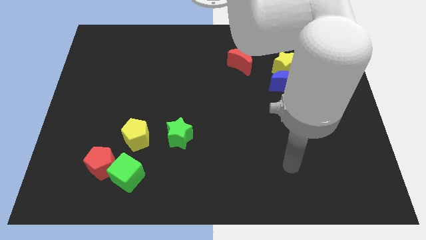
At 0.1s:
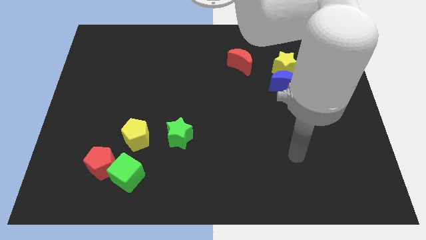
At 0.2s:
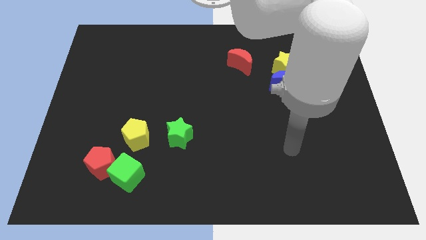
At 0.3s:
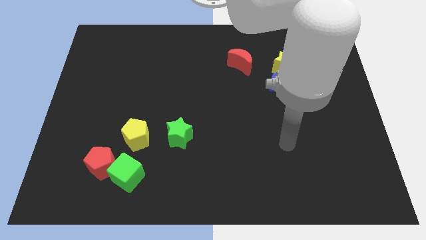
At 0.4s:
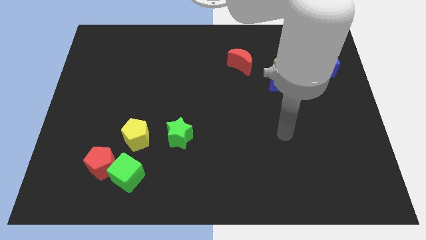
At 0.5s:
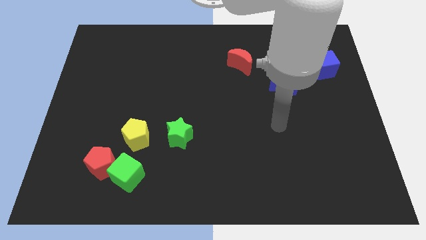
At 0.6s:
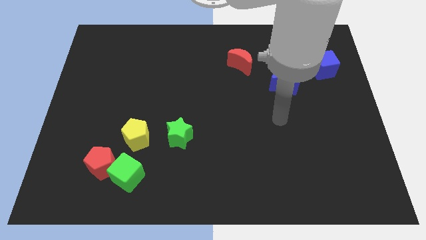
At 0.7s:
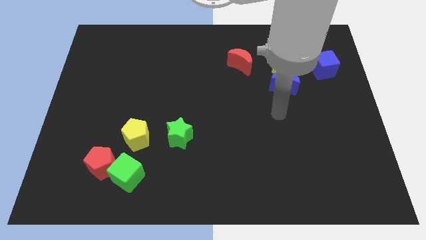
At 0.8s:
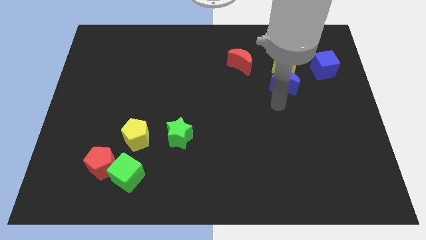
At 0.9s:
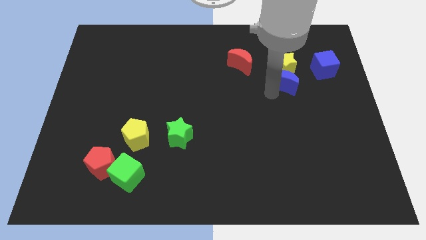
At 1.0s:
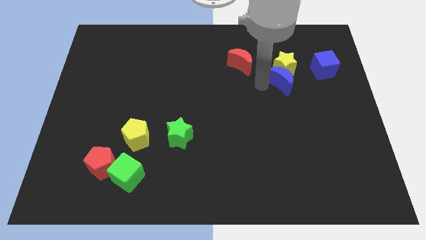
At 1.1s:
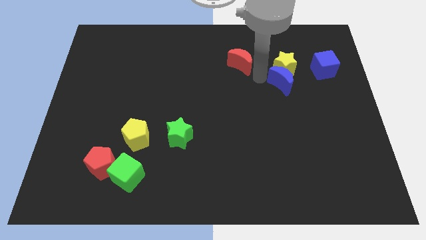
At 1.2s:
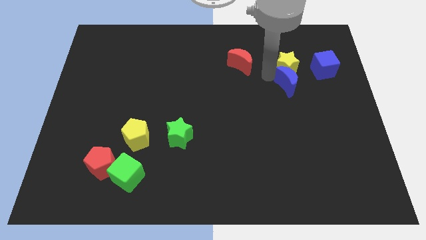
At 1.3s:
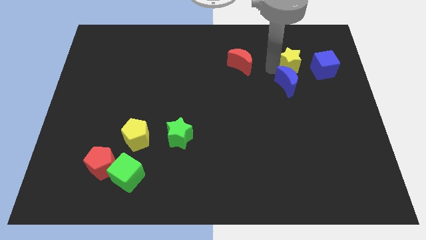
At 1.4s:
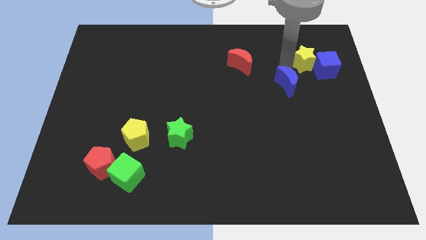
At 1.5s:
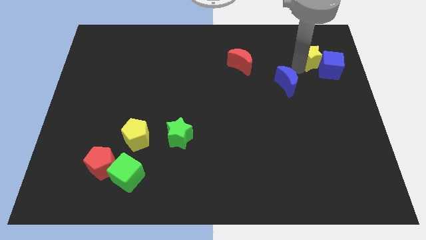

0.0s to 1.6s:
pull the blue moon apart from the yellow star

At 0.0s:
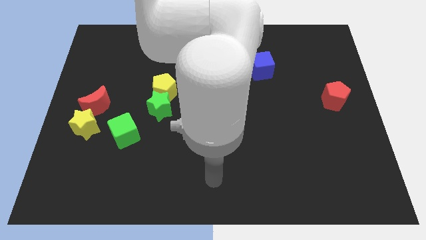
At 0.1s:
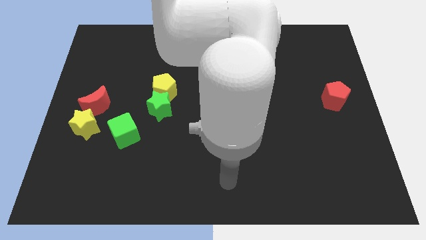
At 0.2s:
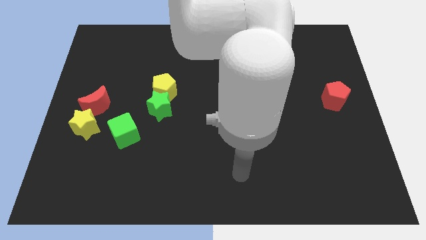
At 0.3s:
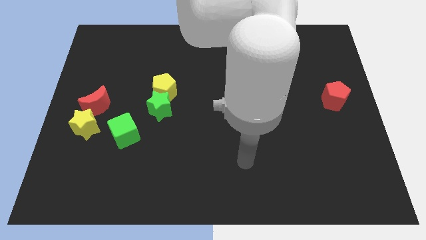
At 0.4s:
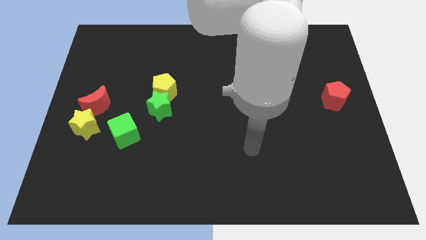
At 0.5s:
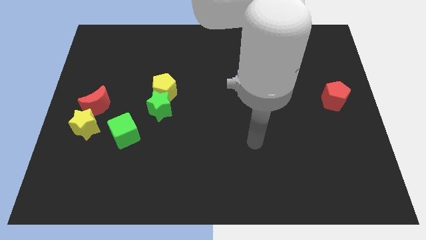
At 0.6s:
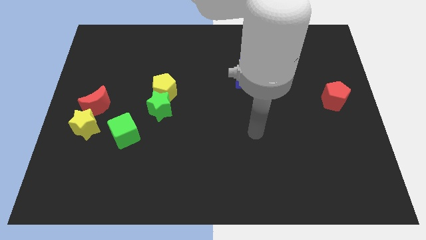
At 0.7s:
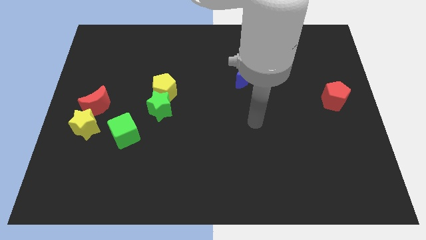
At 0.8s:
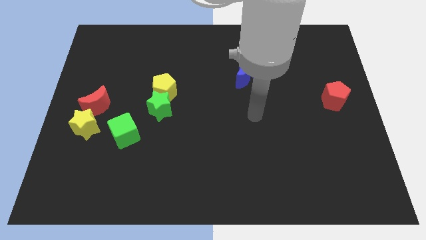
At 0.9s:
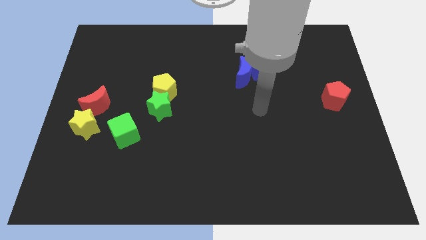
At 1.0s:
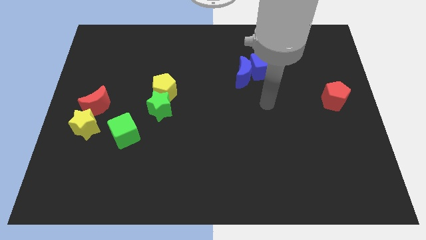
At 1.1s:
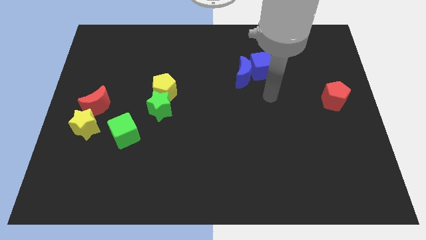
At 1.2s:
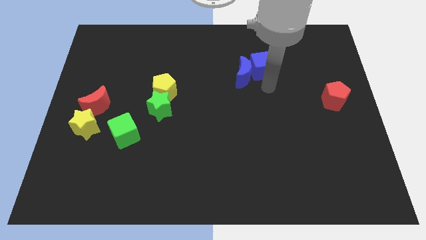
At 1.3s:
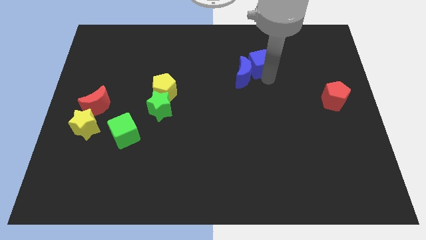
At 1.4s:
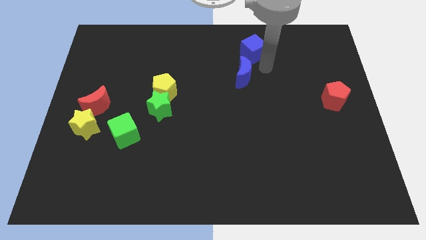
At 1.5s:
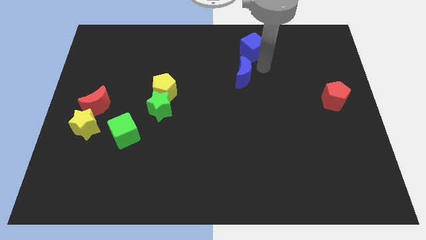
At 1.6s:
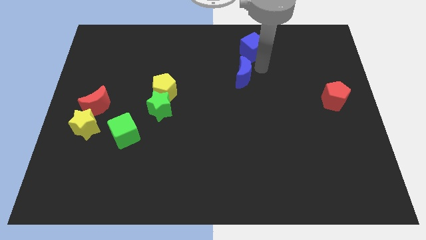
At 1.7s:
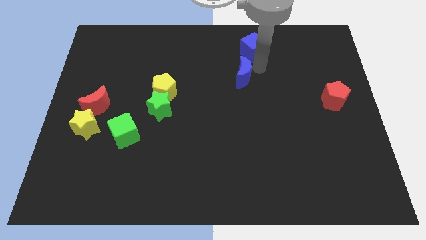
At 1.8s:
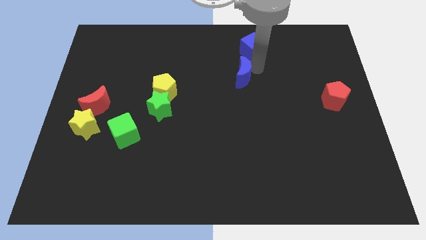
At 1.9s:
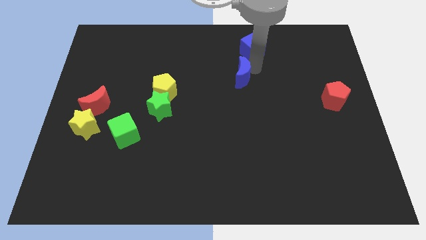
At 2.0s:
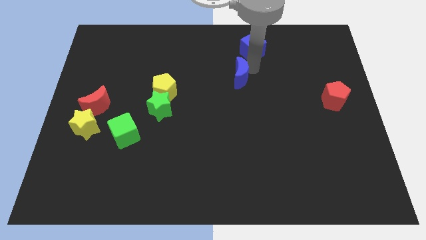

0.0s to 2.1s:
pull the blue moon apart from the blue cube

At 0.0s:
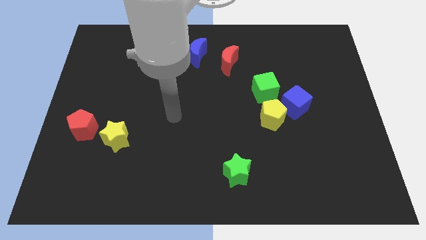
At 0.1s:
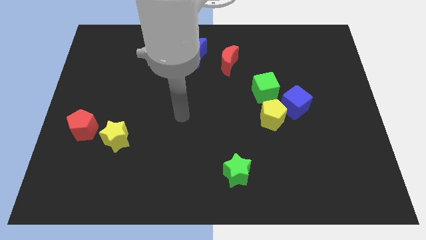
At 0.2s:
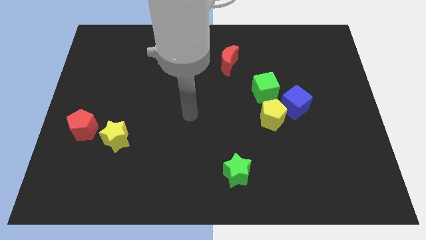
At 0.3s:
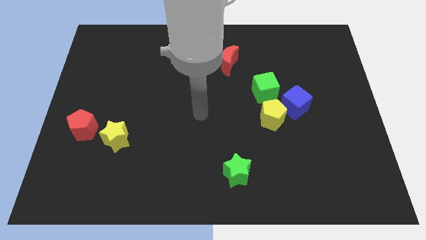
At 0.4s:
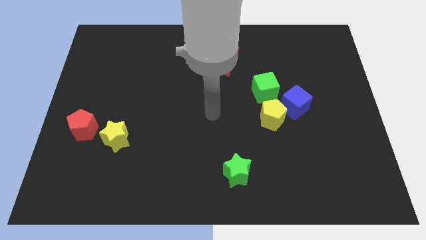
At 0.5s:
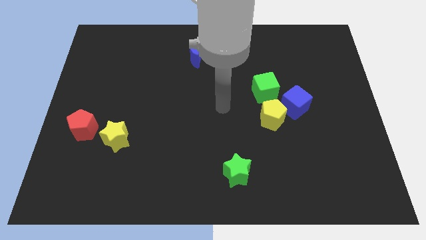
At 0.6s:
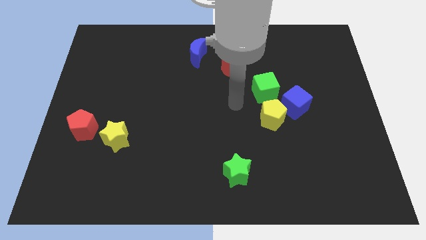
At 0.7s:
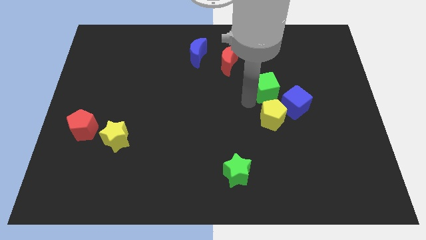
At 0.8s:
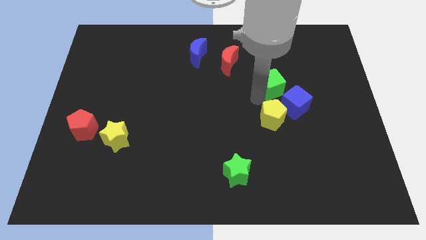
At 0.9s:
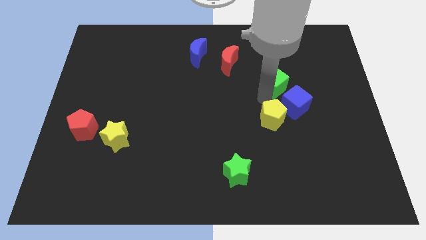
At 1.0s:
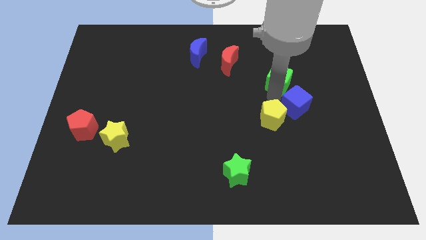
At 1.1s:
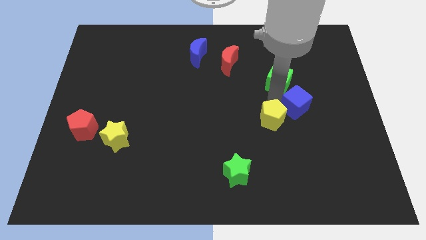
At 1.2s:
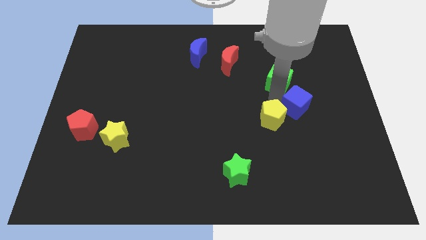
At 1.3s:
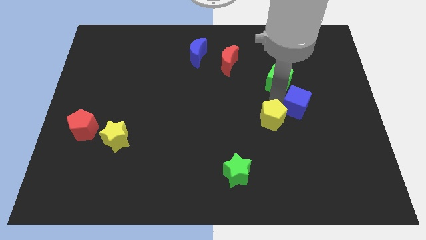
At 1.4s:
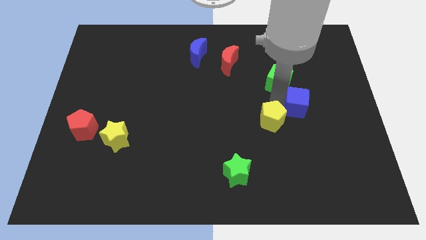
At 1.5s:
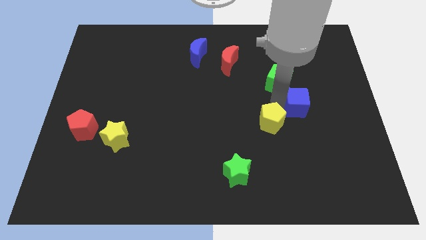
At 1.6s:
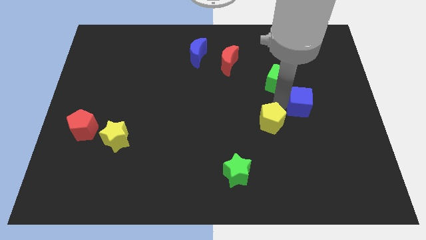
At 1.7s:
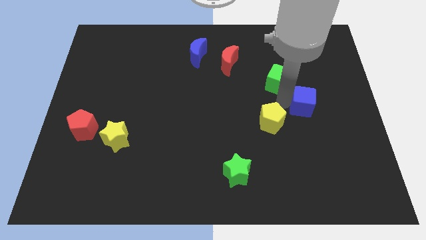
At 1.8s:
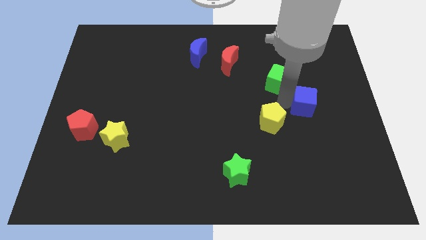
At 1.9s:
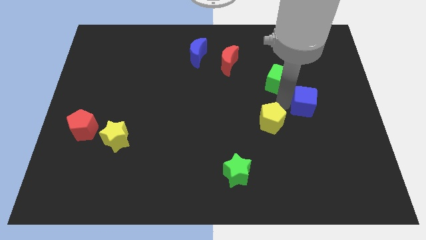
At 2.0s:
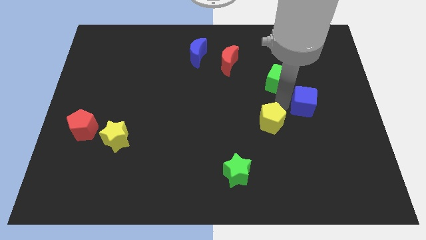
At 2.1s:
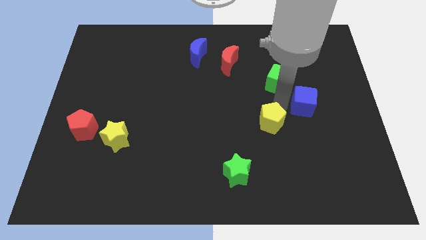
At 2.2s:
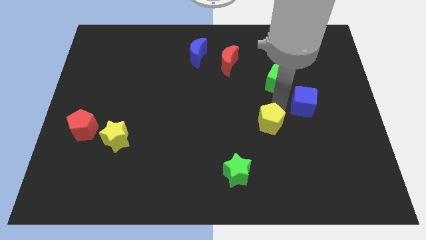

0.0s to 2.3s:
move the yellow pentagon away from the blue cube and green cube

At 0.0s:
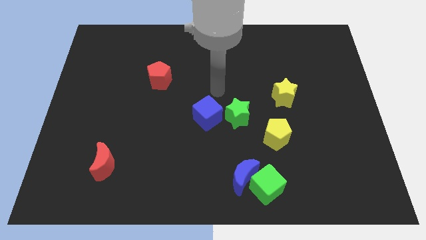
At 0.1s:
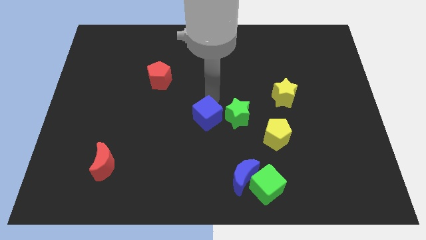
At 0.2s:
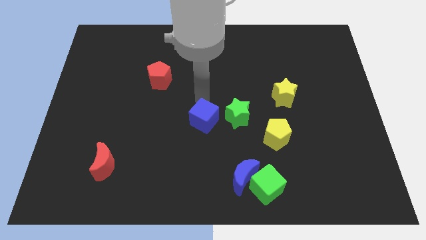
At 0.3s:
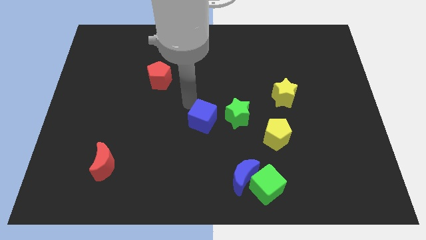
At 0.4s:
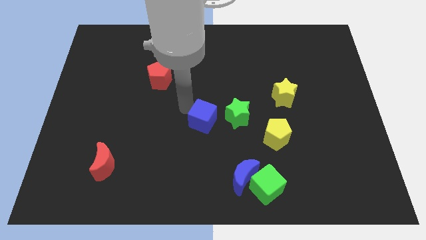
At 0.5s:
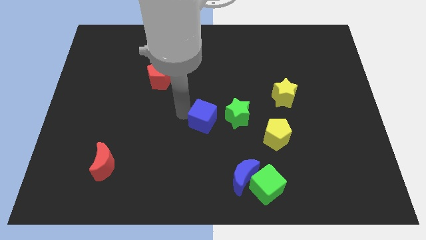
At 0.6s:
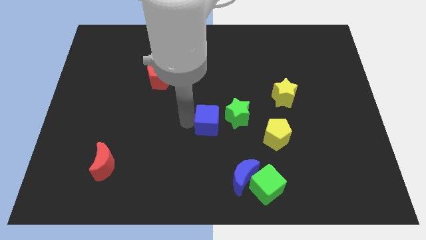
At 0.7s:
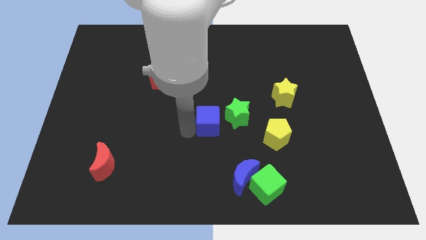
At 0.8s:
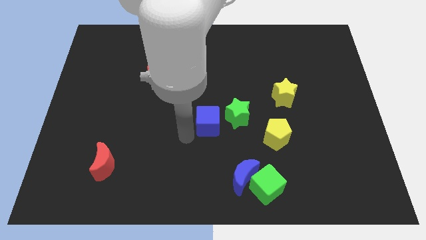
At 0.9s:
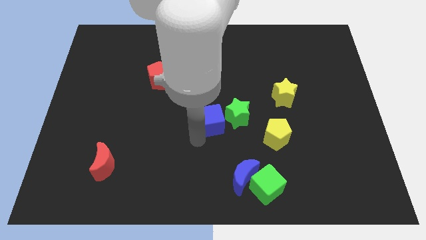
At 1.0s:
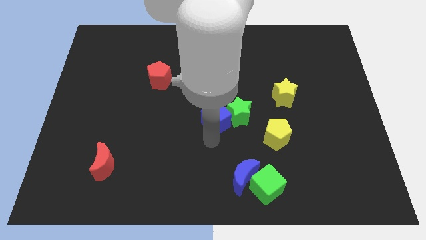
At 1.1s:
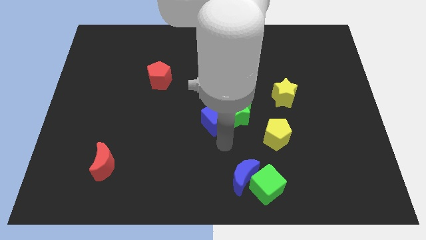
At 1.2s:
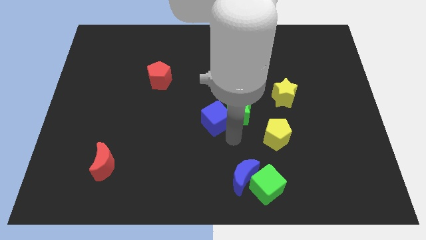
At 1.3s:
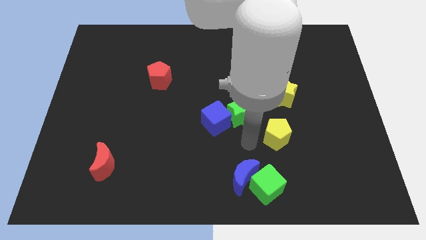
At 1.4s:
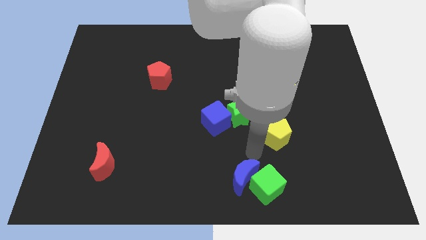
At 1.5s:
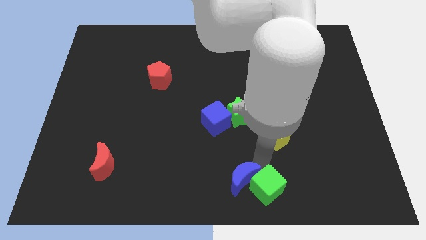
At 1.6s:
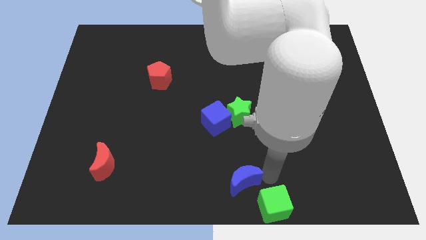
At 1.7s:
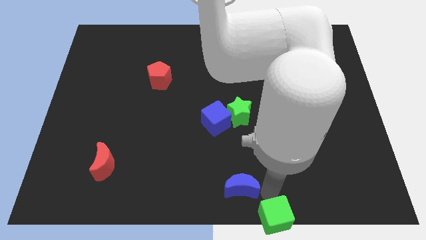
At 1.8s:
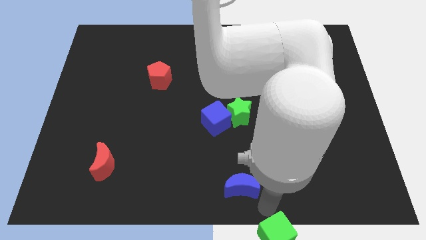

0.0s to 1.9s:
pull the blue moon apart from the green cube

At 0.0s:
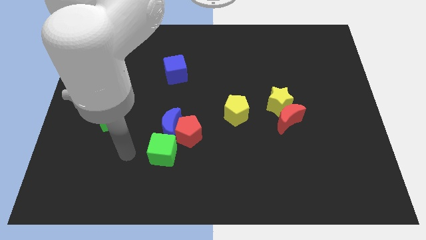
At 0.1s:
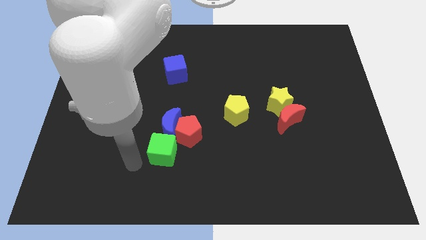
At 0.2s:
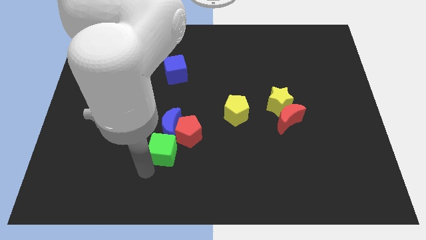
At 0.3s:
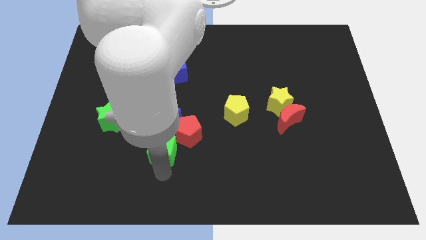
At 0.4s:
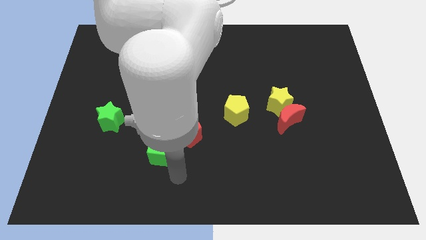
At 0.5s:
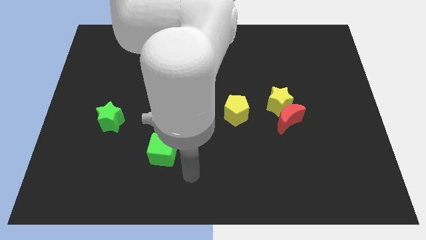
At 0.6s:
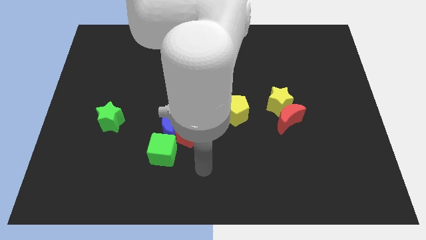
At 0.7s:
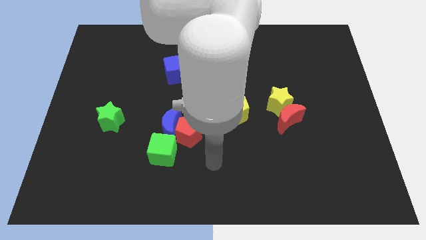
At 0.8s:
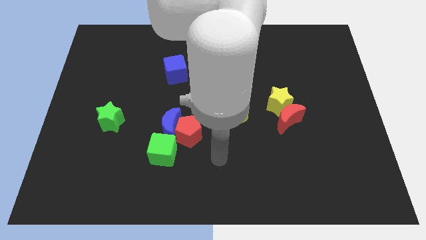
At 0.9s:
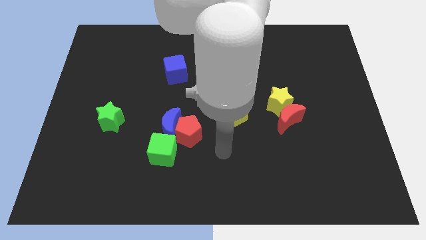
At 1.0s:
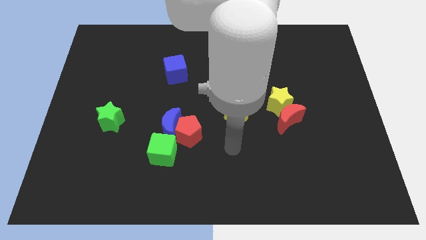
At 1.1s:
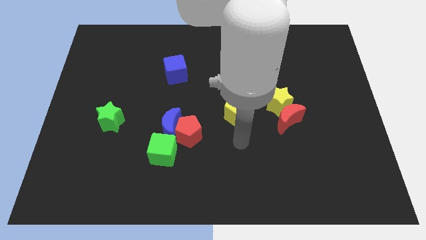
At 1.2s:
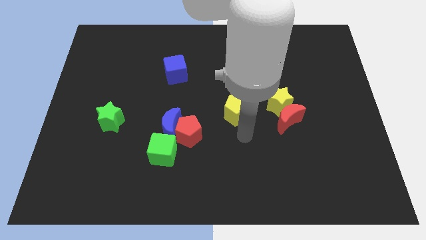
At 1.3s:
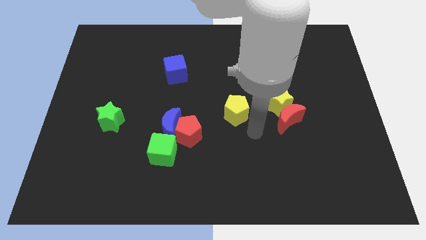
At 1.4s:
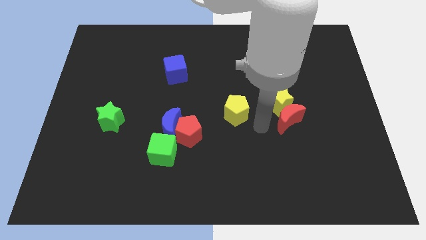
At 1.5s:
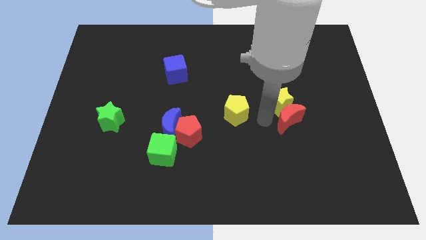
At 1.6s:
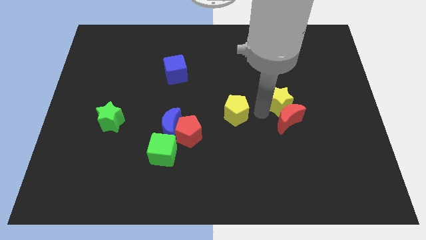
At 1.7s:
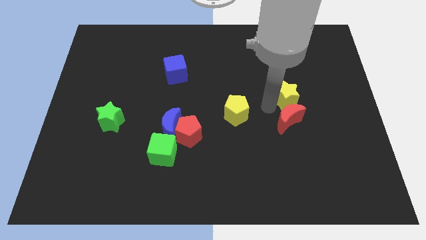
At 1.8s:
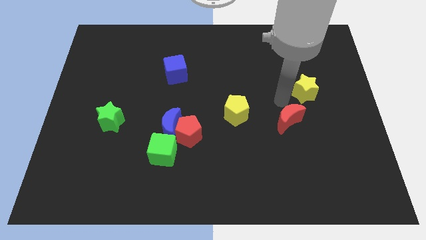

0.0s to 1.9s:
move the red moon away from the yellow star
